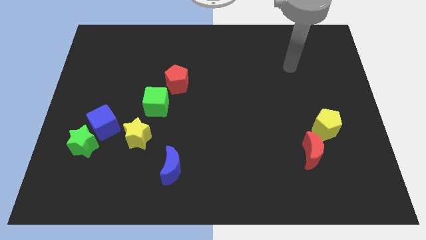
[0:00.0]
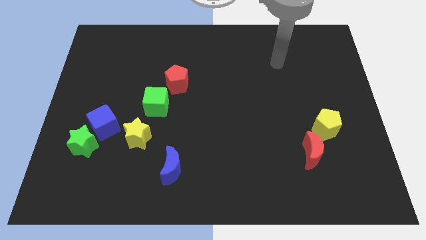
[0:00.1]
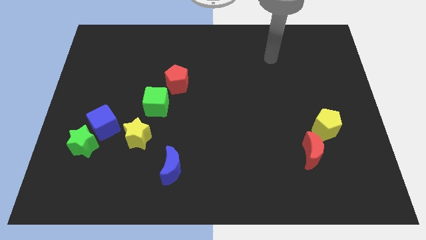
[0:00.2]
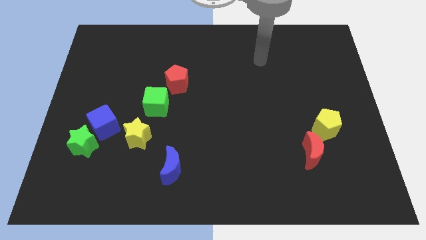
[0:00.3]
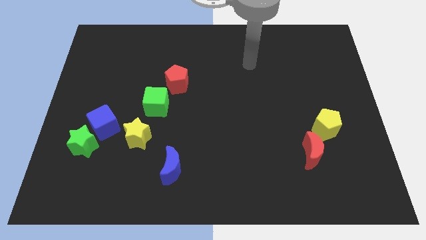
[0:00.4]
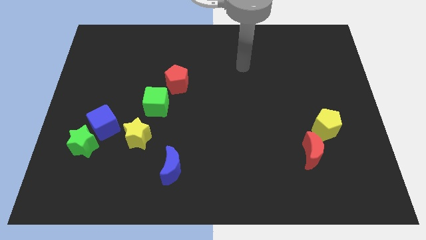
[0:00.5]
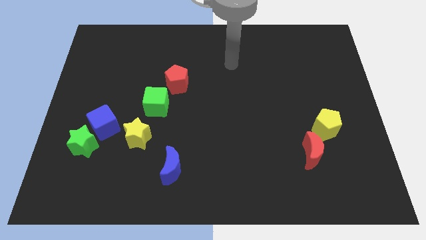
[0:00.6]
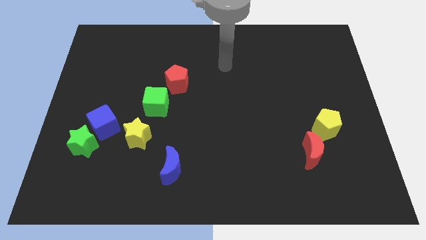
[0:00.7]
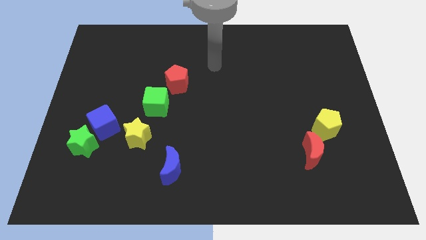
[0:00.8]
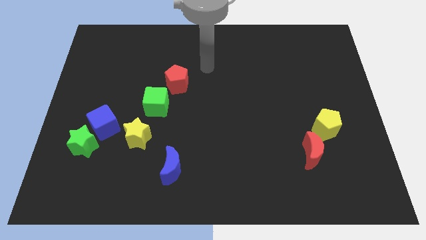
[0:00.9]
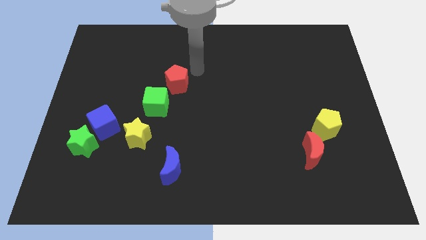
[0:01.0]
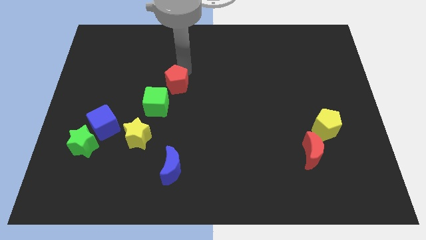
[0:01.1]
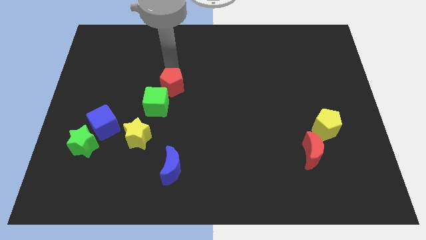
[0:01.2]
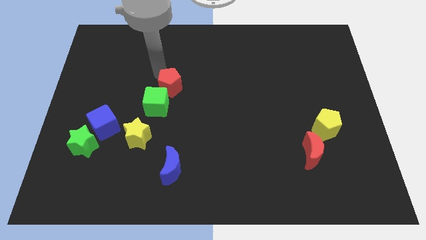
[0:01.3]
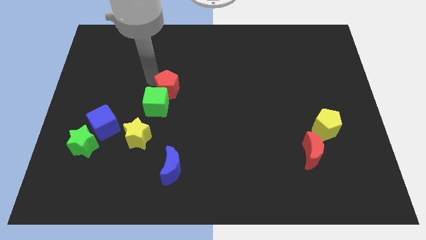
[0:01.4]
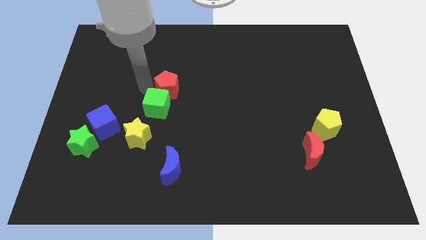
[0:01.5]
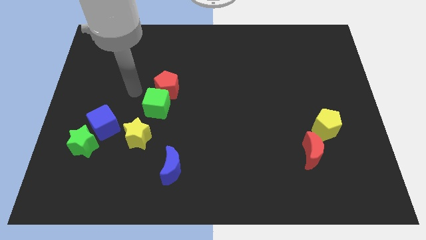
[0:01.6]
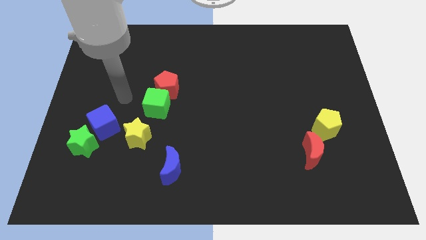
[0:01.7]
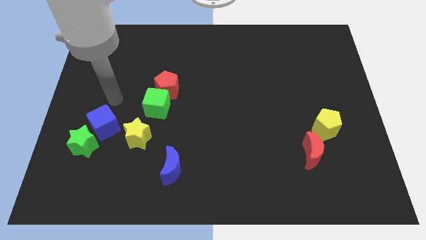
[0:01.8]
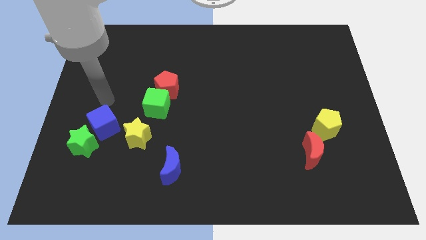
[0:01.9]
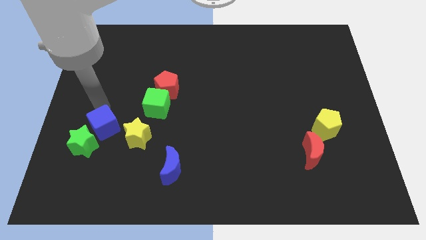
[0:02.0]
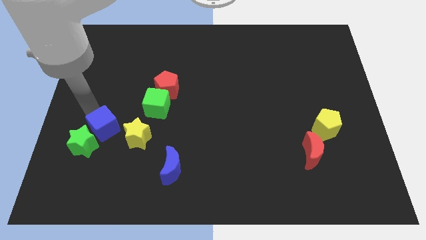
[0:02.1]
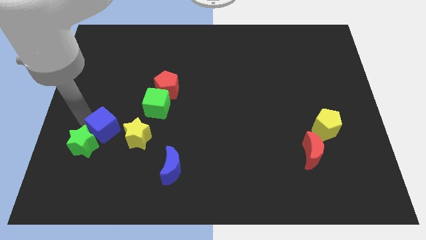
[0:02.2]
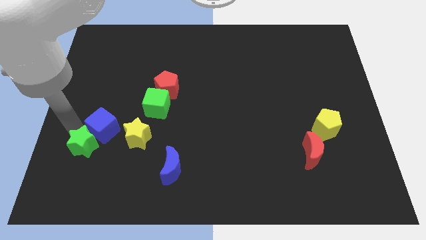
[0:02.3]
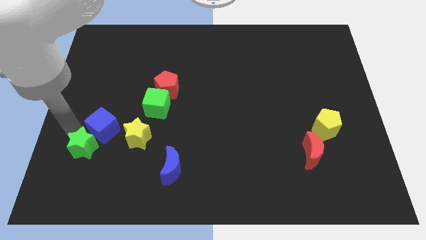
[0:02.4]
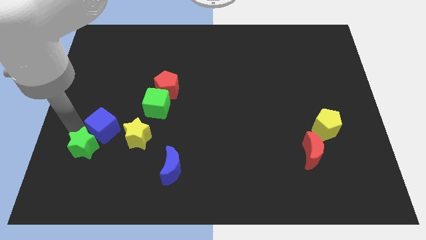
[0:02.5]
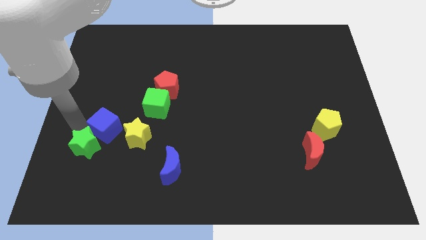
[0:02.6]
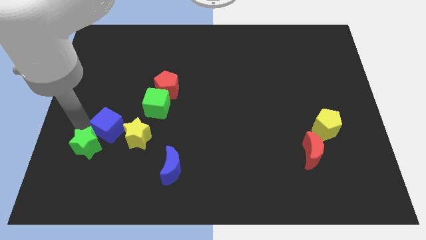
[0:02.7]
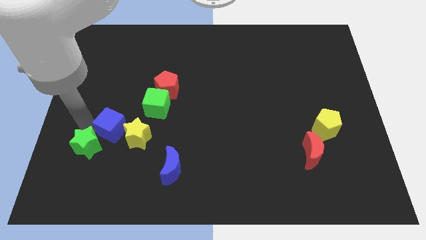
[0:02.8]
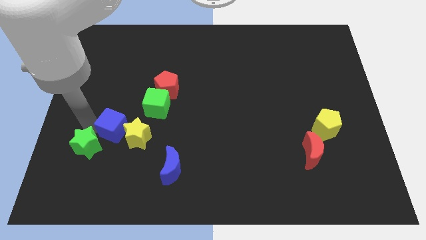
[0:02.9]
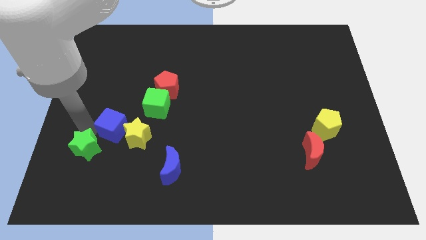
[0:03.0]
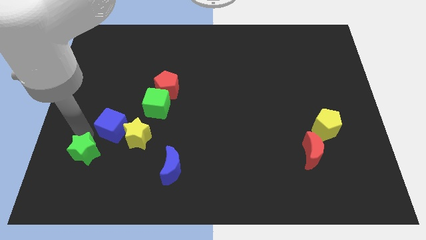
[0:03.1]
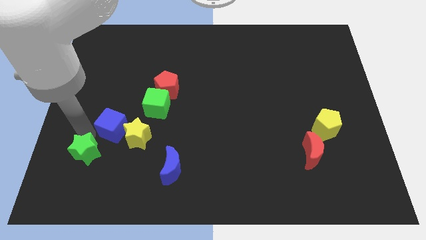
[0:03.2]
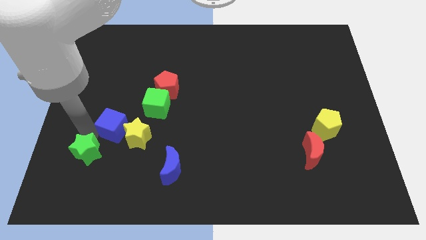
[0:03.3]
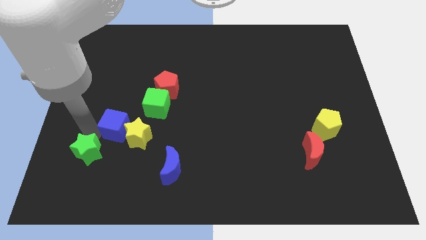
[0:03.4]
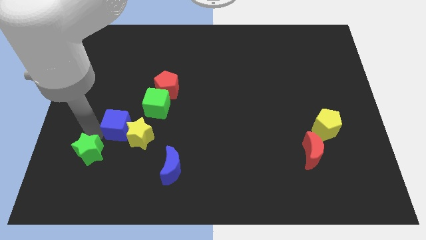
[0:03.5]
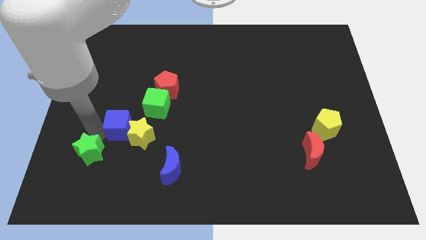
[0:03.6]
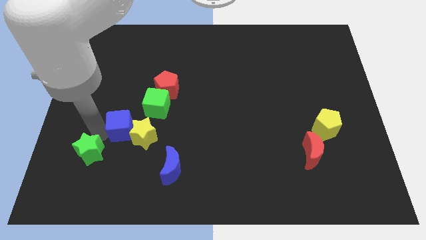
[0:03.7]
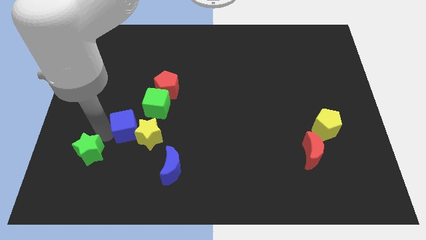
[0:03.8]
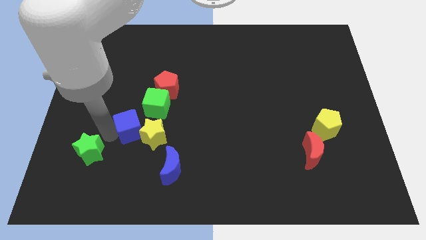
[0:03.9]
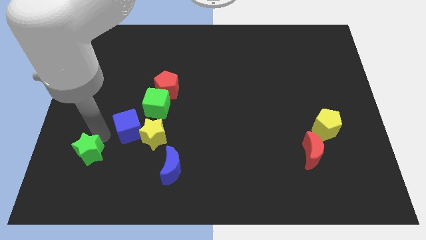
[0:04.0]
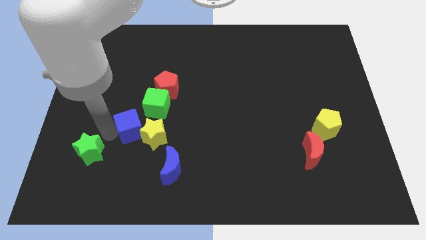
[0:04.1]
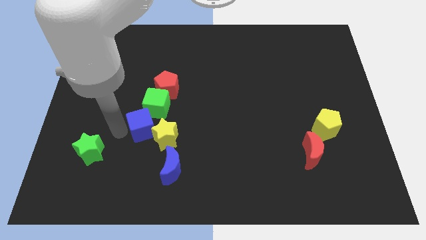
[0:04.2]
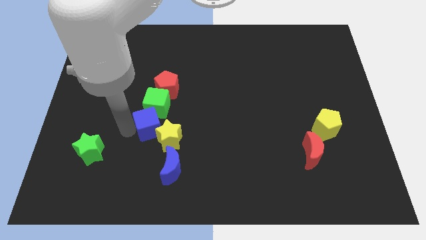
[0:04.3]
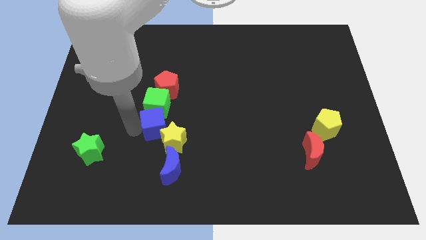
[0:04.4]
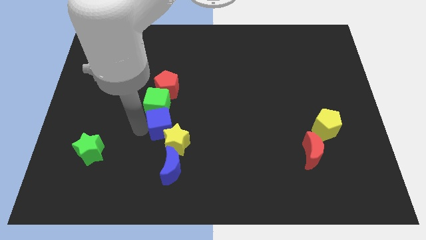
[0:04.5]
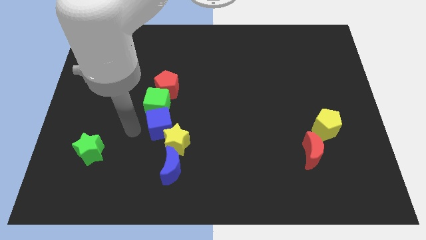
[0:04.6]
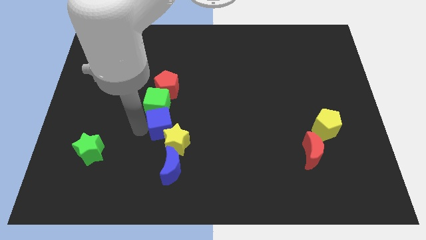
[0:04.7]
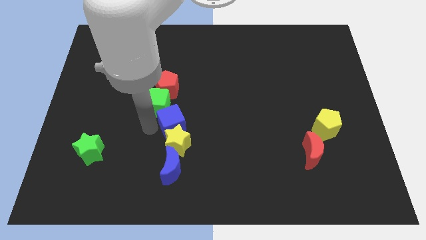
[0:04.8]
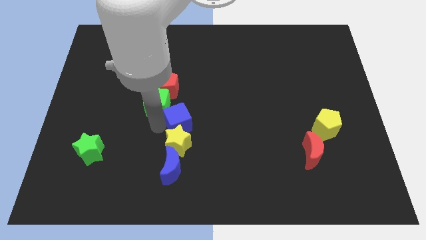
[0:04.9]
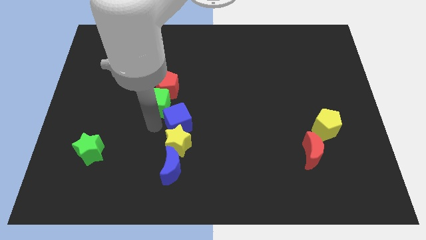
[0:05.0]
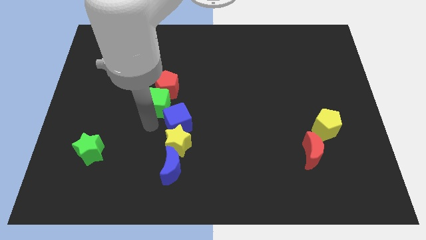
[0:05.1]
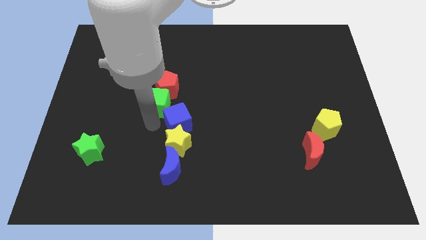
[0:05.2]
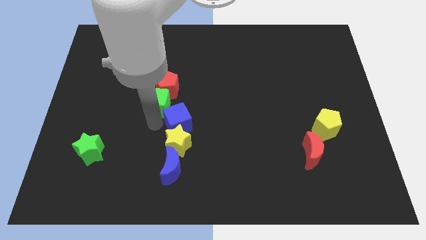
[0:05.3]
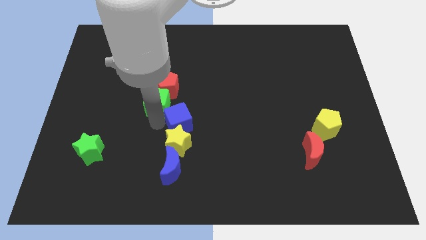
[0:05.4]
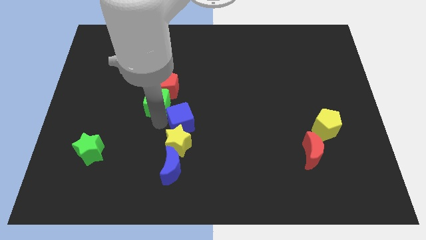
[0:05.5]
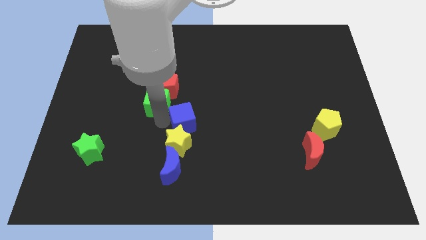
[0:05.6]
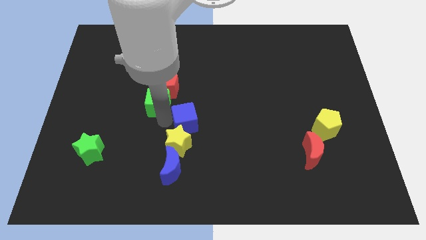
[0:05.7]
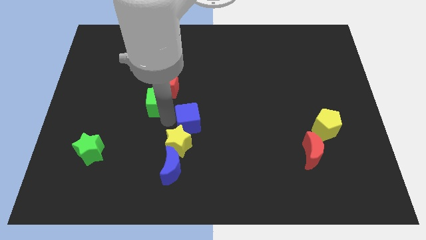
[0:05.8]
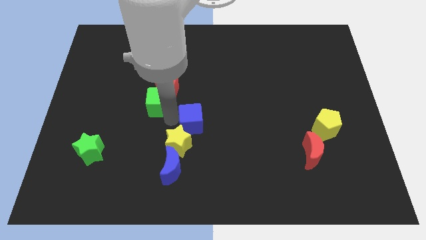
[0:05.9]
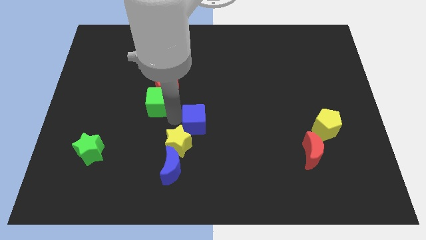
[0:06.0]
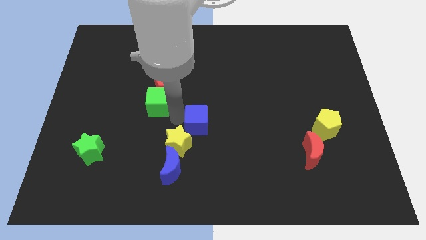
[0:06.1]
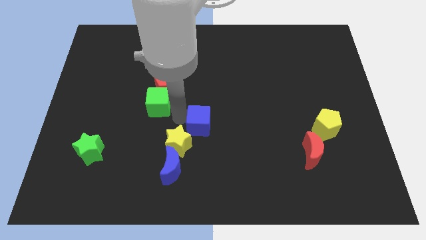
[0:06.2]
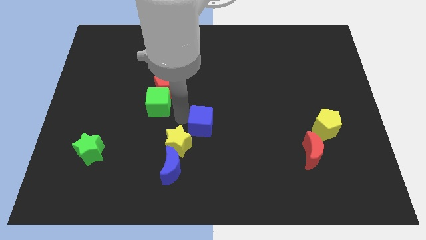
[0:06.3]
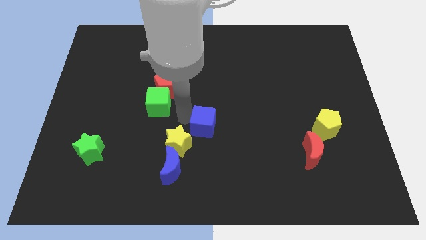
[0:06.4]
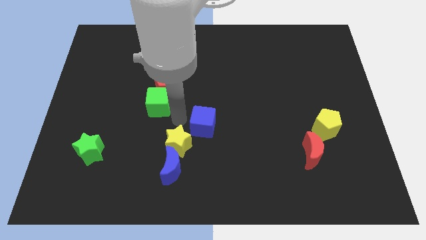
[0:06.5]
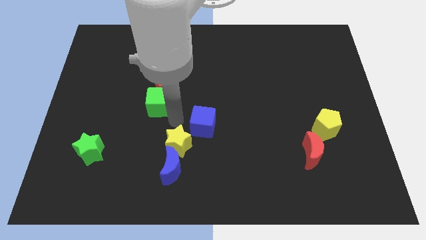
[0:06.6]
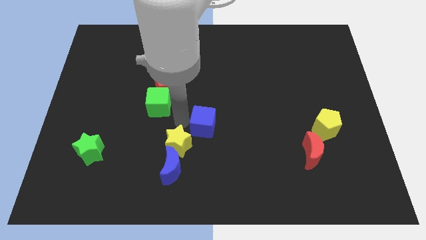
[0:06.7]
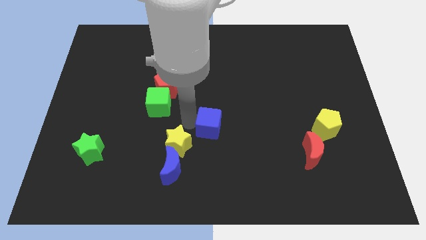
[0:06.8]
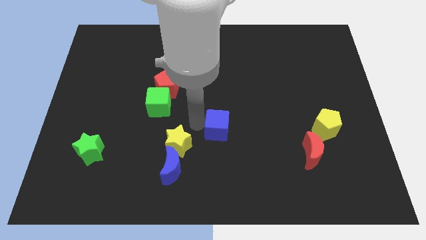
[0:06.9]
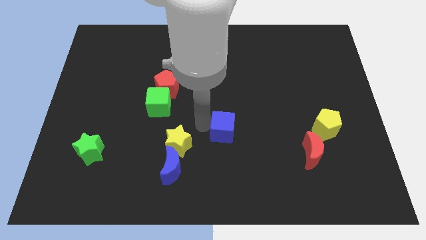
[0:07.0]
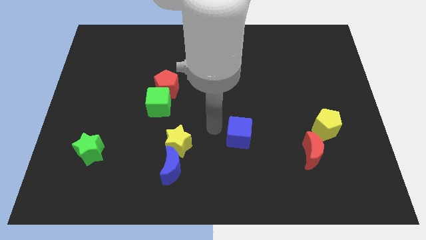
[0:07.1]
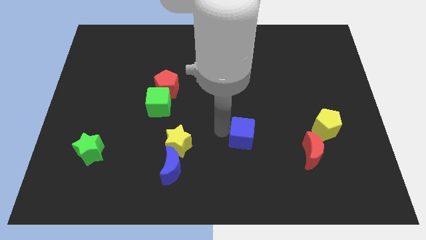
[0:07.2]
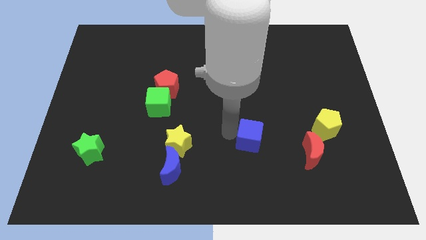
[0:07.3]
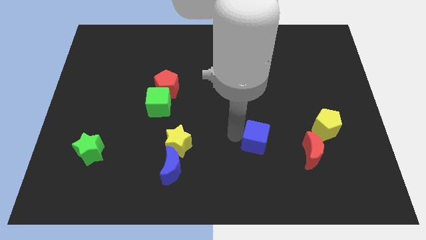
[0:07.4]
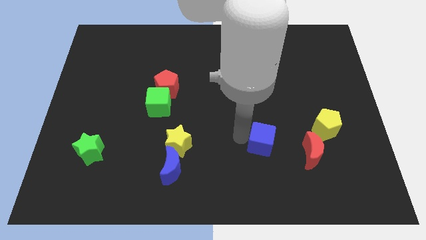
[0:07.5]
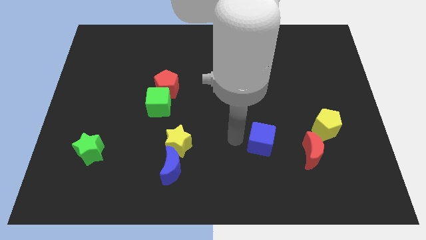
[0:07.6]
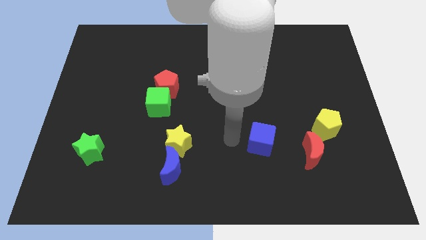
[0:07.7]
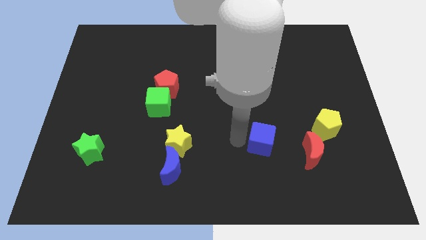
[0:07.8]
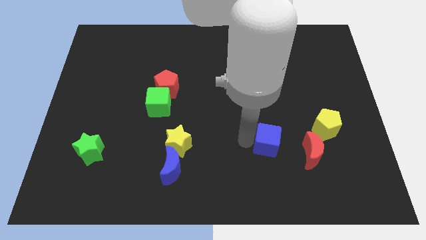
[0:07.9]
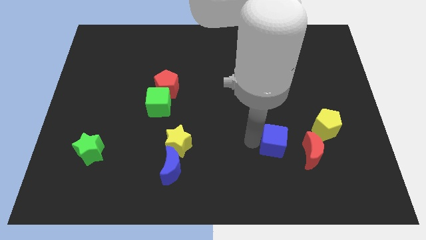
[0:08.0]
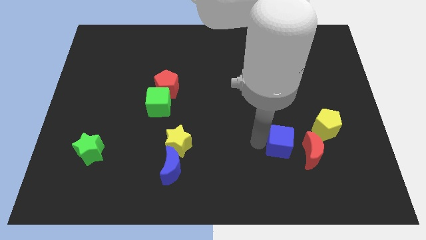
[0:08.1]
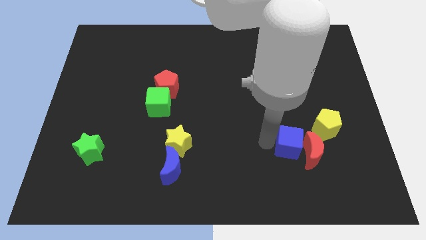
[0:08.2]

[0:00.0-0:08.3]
move the blue cube next to the red moon
